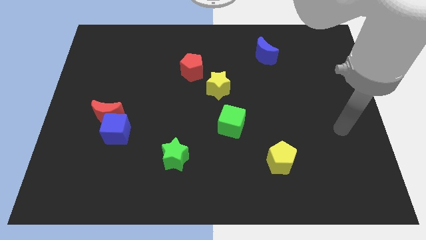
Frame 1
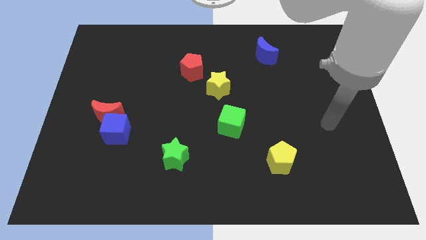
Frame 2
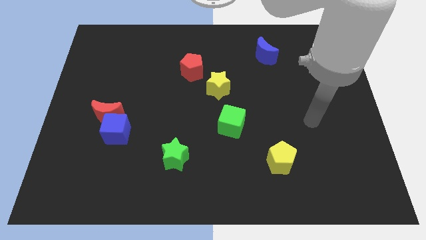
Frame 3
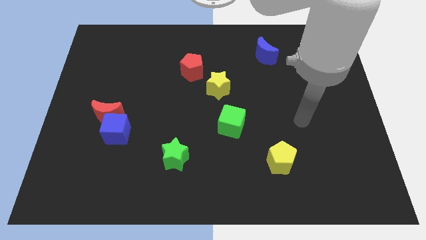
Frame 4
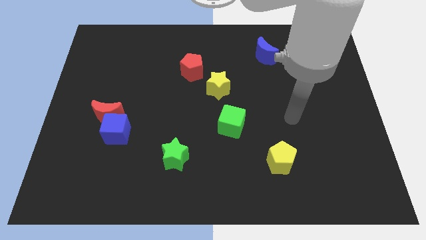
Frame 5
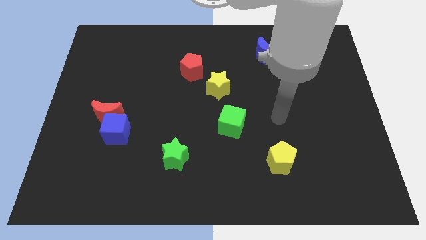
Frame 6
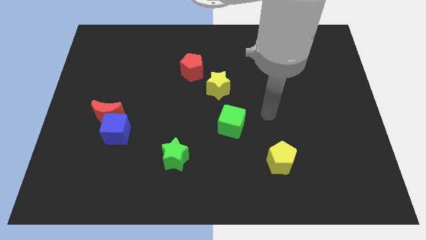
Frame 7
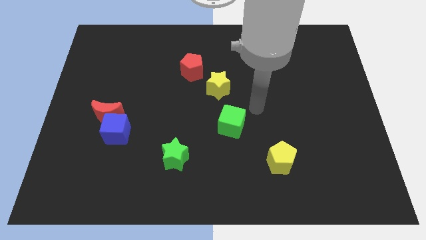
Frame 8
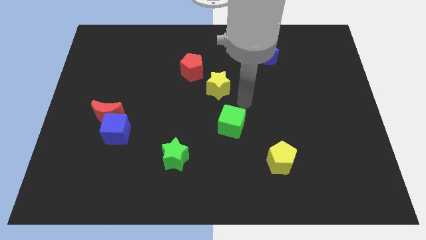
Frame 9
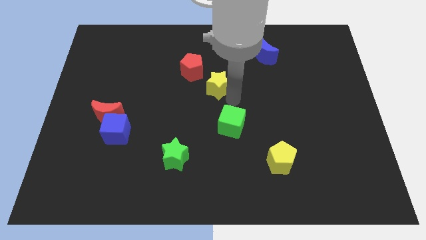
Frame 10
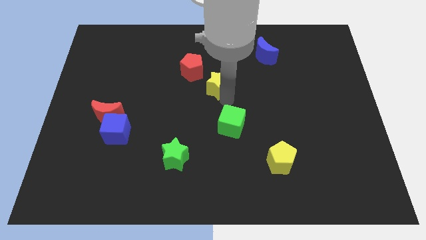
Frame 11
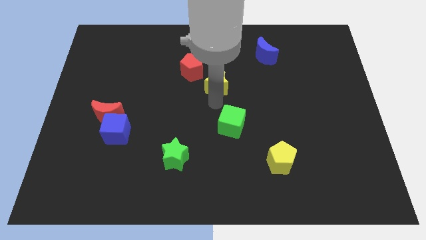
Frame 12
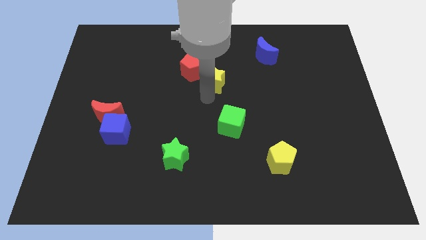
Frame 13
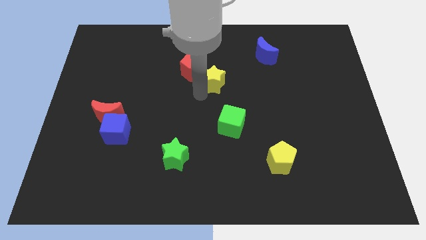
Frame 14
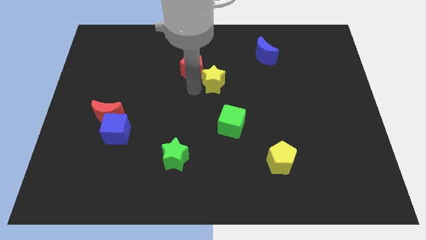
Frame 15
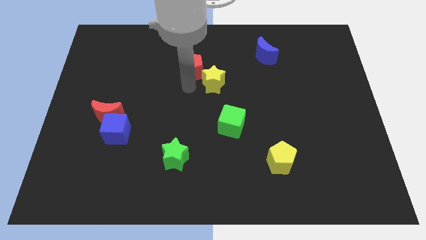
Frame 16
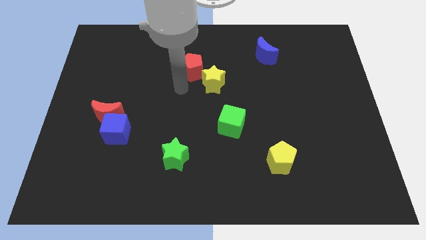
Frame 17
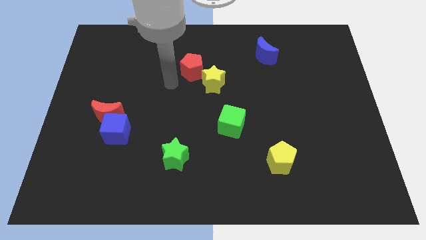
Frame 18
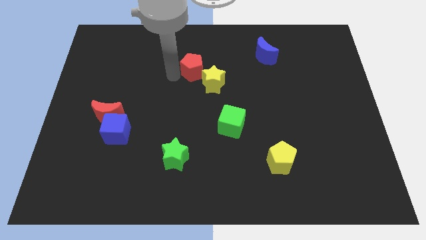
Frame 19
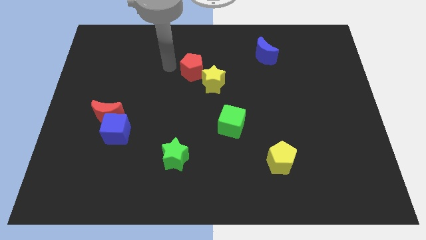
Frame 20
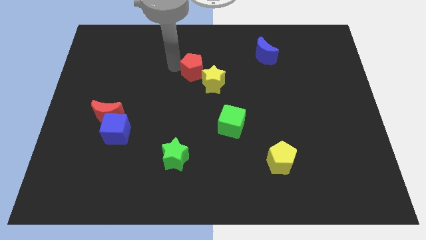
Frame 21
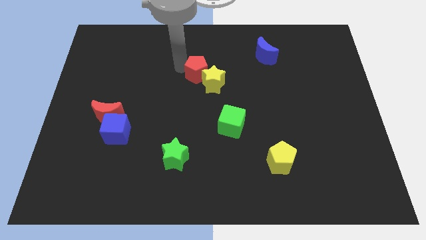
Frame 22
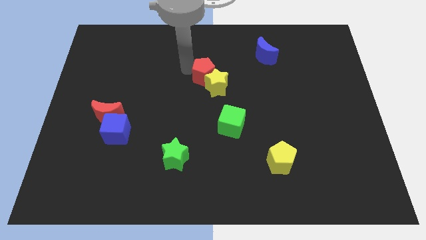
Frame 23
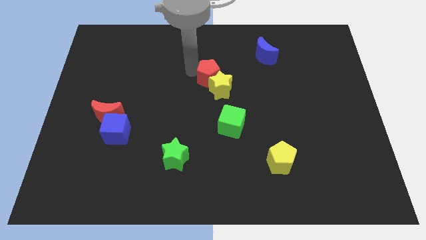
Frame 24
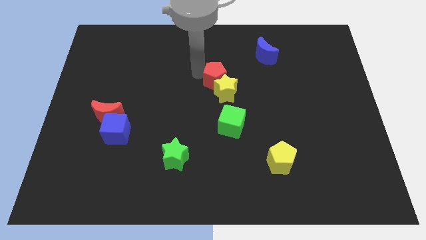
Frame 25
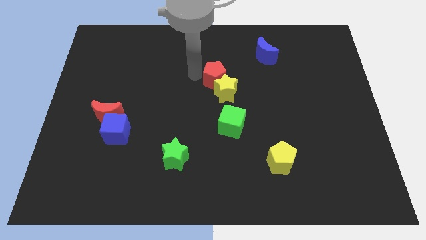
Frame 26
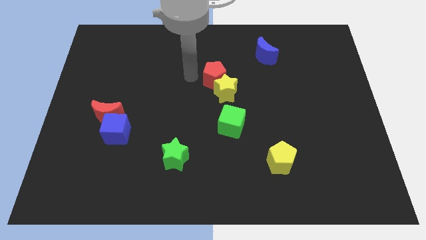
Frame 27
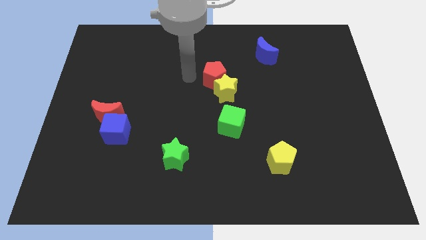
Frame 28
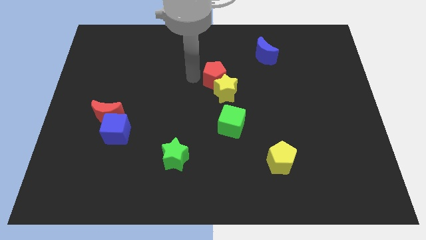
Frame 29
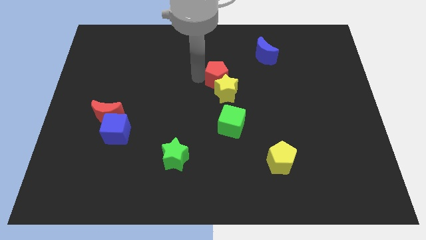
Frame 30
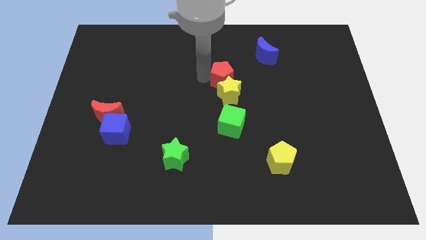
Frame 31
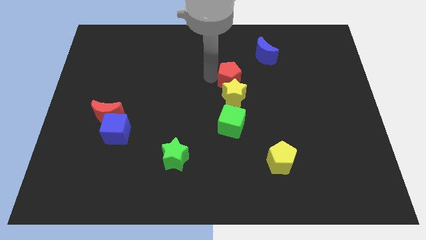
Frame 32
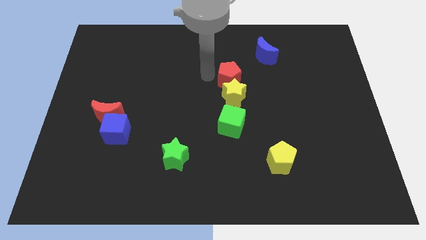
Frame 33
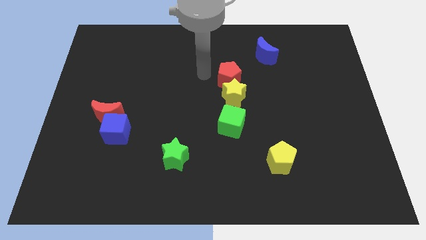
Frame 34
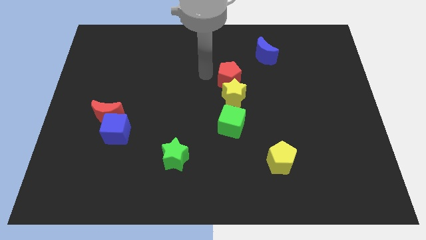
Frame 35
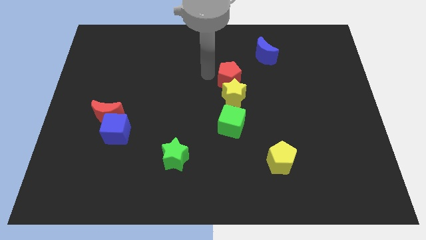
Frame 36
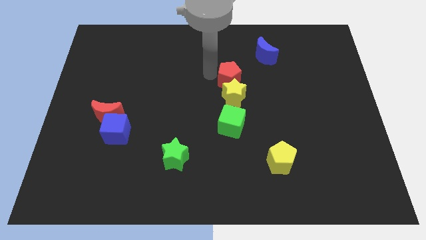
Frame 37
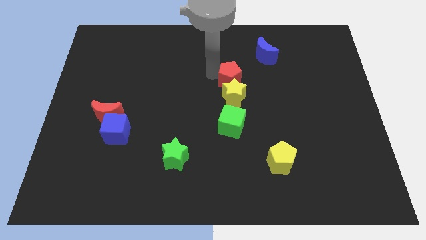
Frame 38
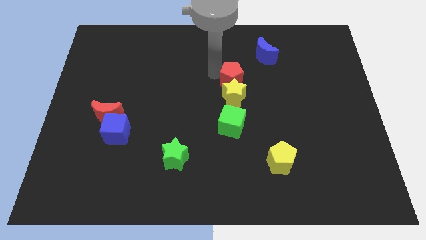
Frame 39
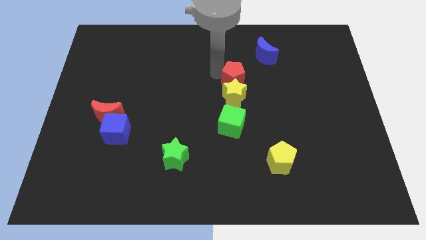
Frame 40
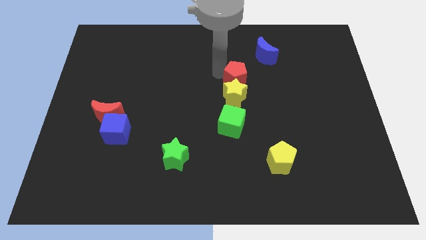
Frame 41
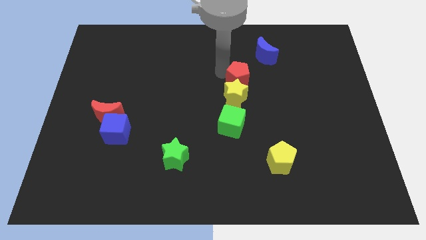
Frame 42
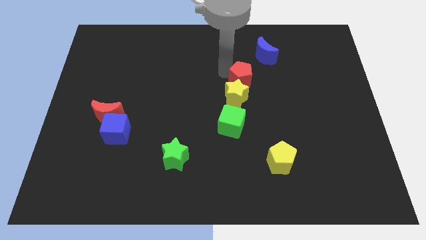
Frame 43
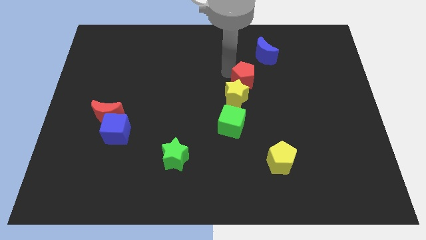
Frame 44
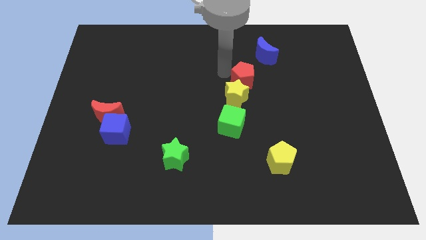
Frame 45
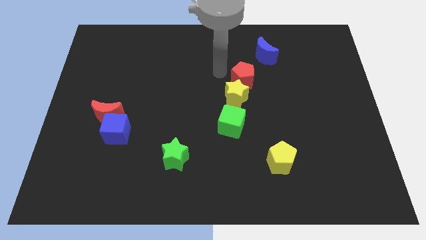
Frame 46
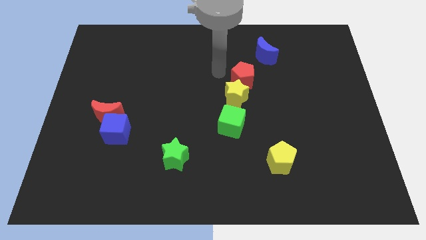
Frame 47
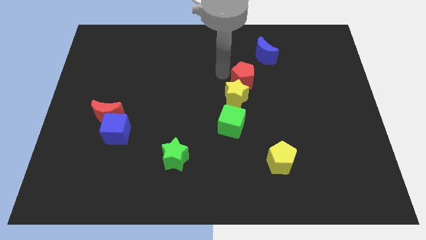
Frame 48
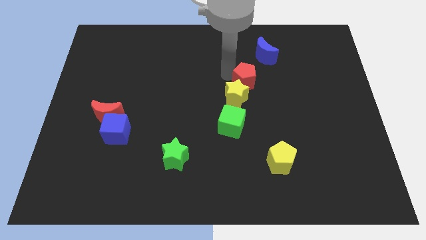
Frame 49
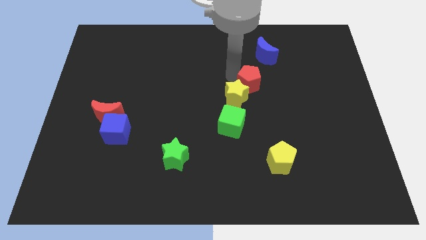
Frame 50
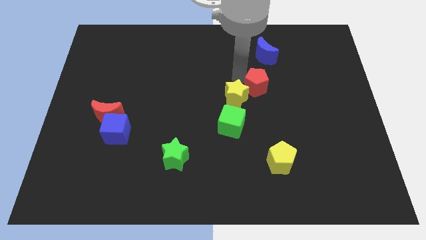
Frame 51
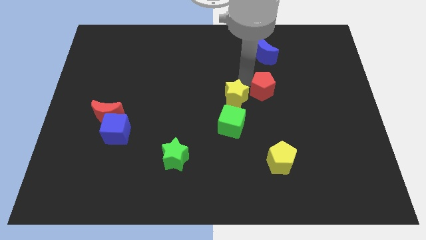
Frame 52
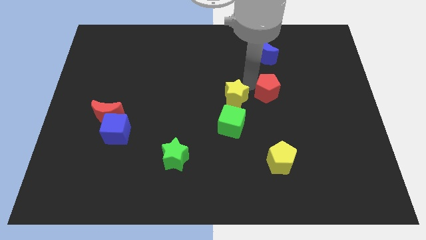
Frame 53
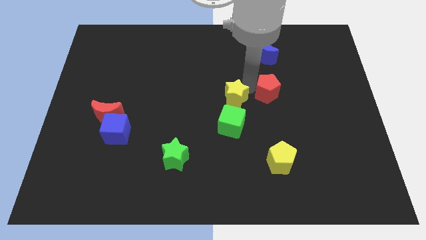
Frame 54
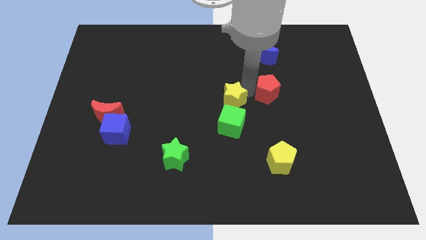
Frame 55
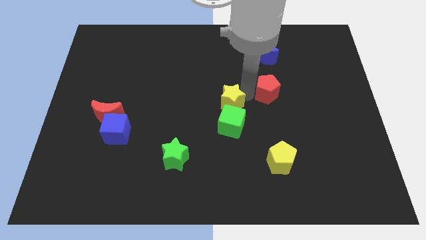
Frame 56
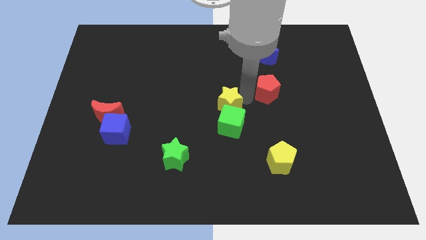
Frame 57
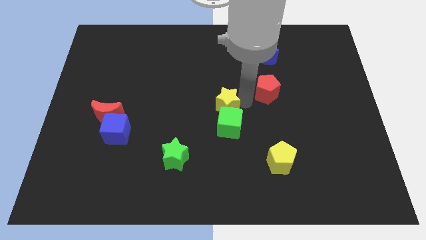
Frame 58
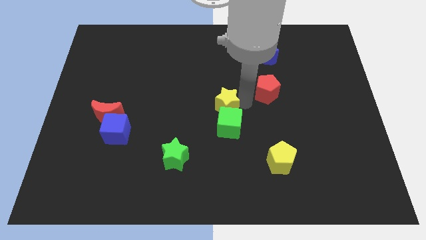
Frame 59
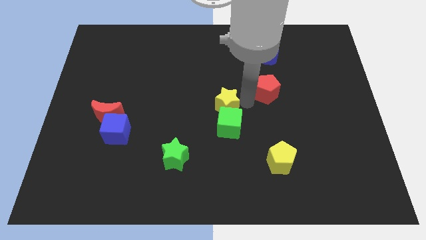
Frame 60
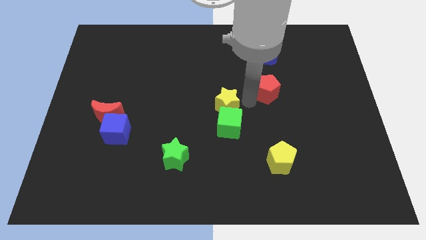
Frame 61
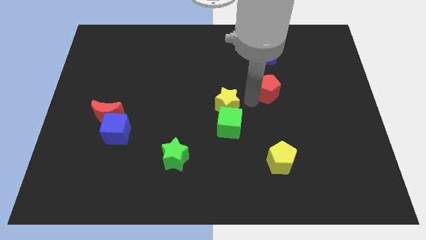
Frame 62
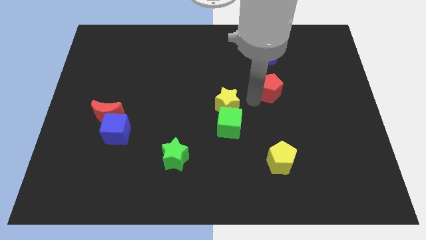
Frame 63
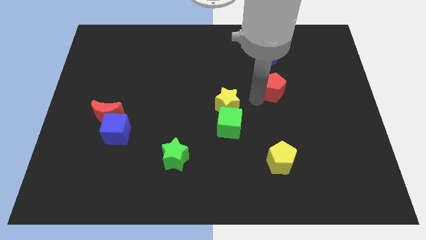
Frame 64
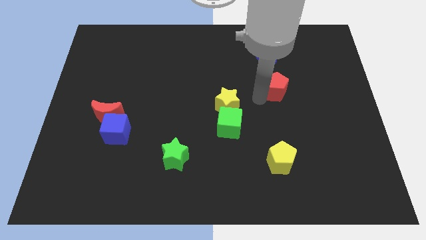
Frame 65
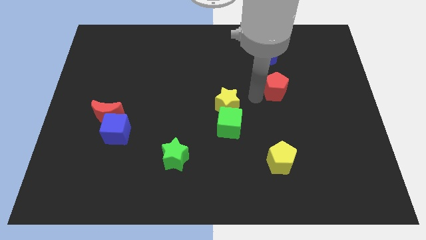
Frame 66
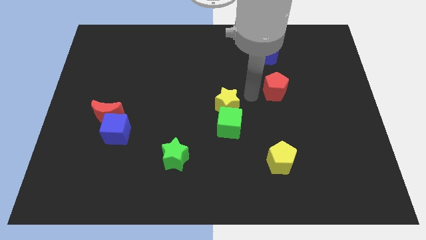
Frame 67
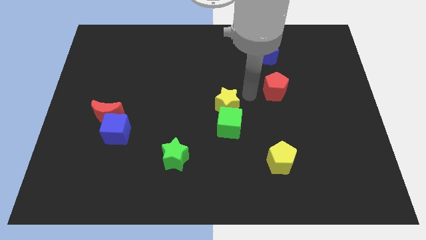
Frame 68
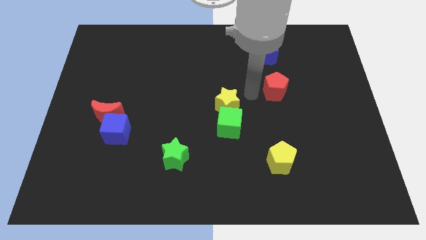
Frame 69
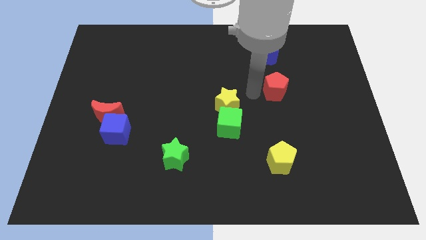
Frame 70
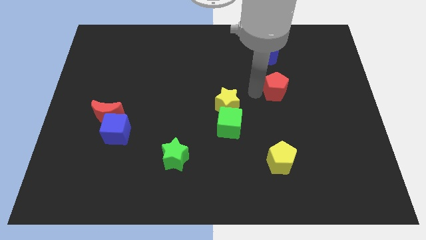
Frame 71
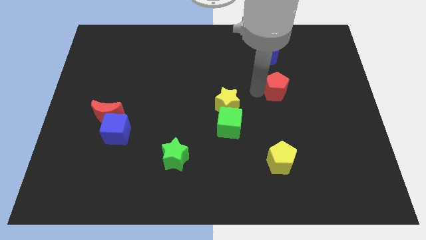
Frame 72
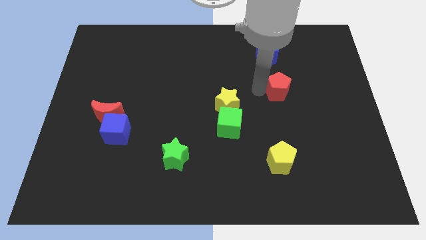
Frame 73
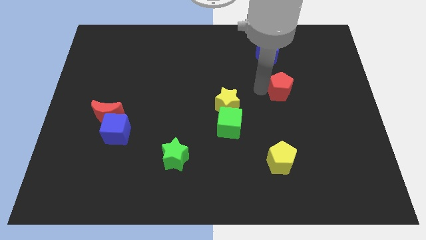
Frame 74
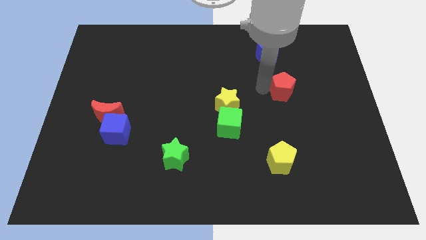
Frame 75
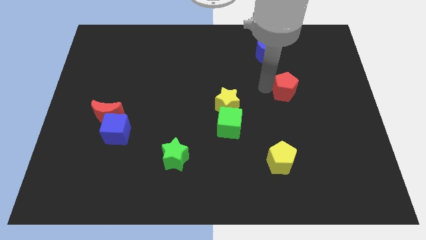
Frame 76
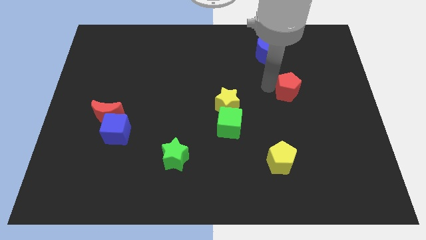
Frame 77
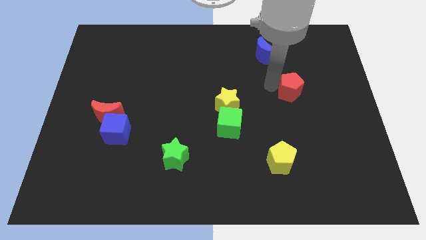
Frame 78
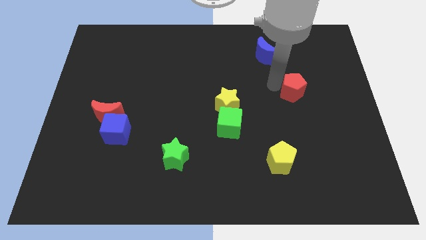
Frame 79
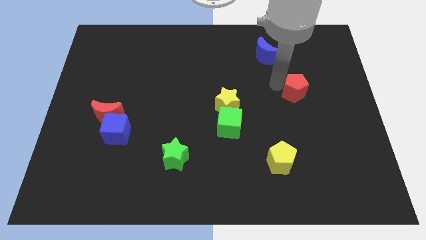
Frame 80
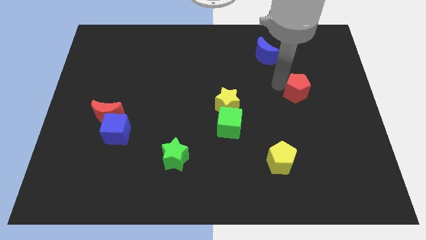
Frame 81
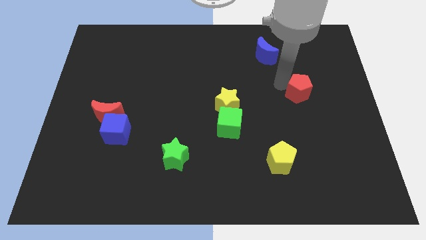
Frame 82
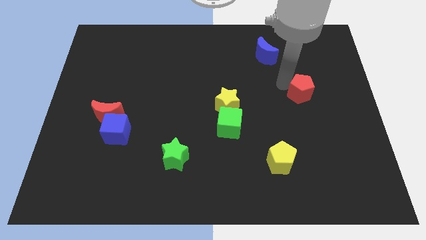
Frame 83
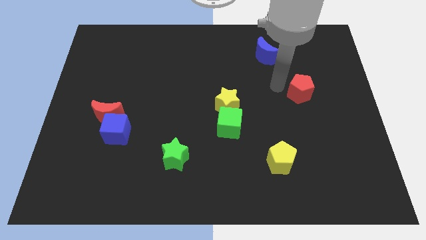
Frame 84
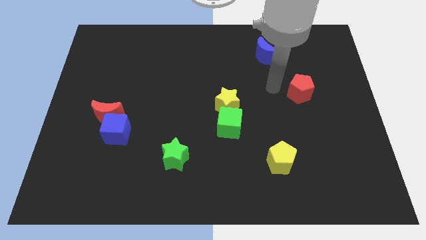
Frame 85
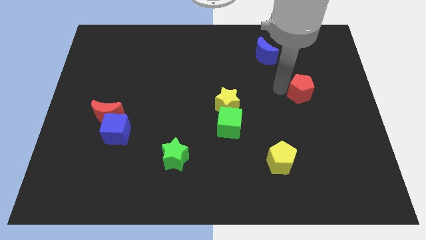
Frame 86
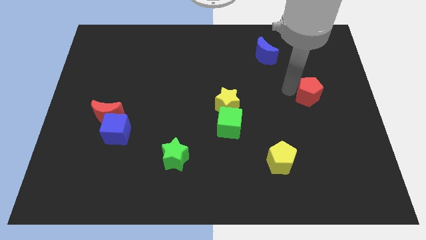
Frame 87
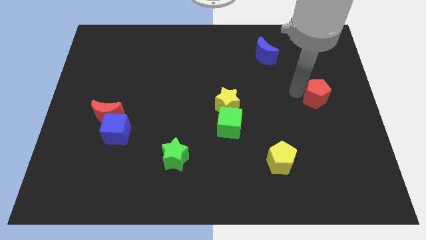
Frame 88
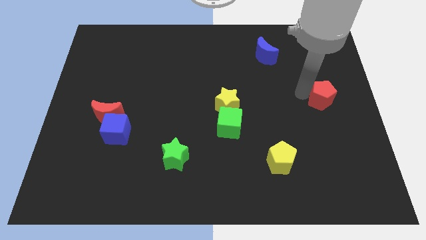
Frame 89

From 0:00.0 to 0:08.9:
push the red pentagon to the right side of the board
